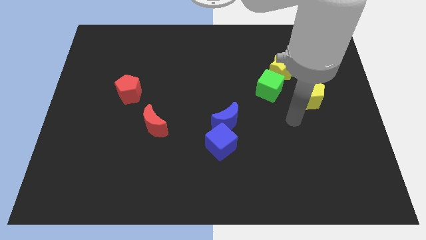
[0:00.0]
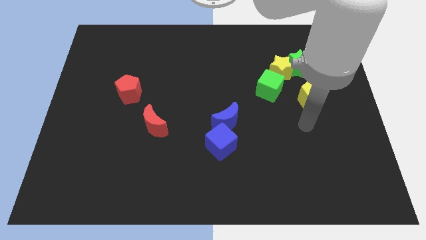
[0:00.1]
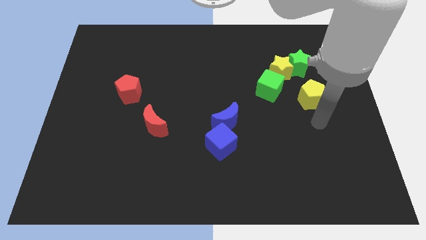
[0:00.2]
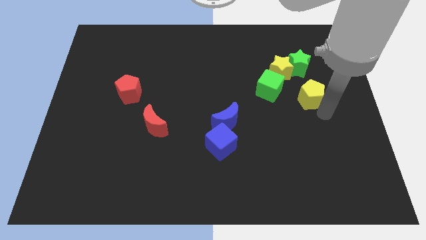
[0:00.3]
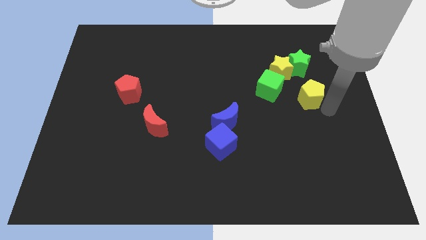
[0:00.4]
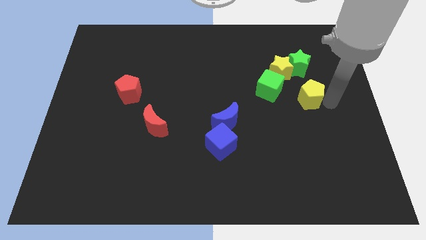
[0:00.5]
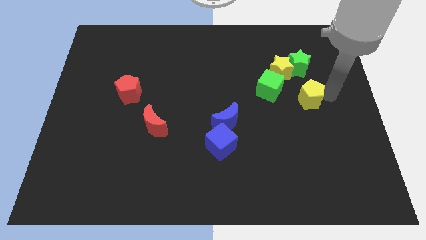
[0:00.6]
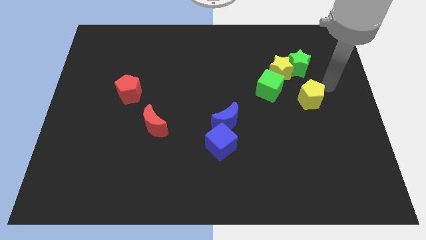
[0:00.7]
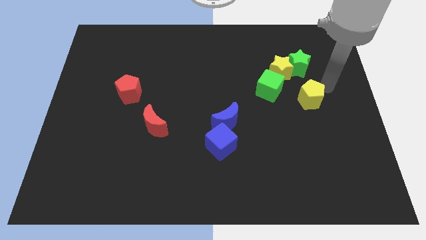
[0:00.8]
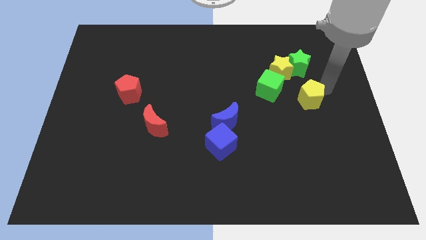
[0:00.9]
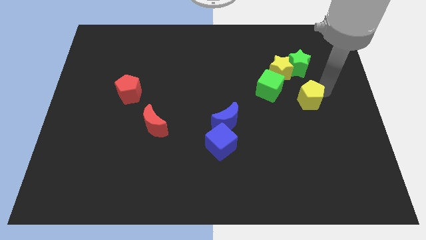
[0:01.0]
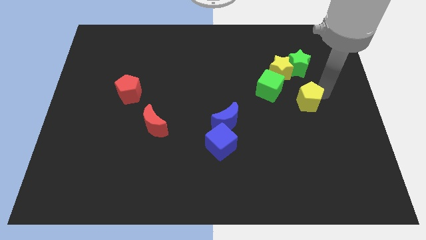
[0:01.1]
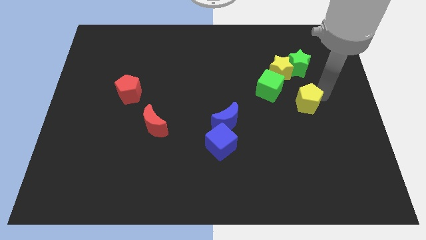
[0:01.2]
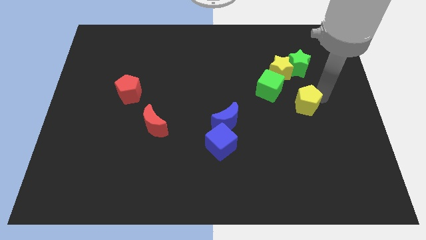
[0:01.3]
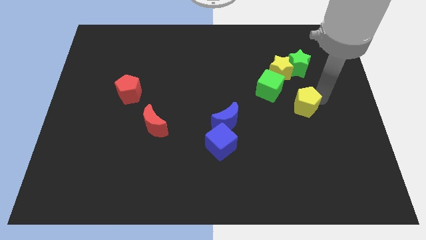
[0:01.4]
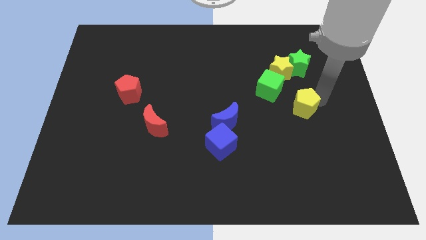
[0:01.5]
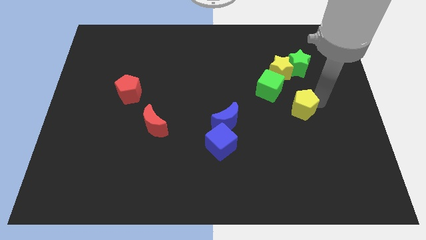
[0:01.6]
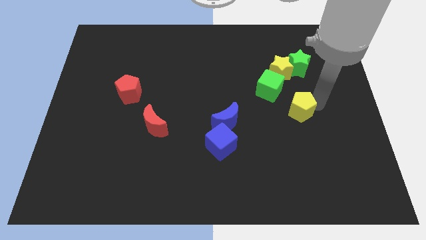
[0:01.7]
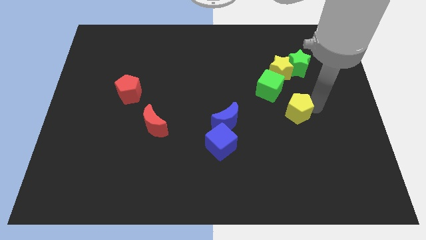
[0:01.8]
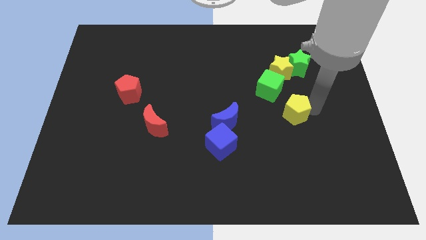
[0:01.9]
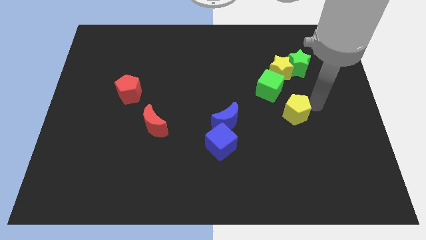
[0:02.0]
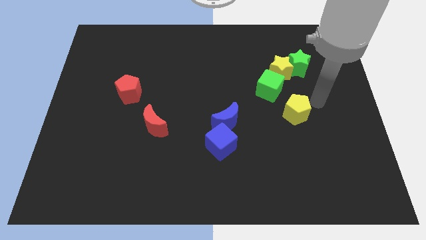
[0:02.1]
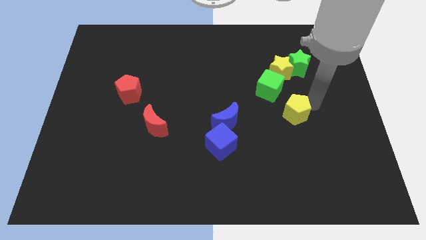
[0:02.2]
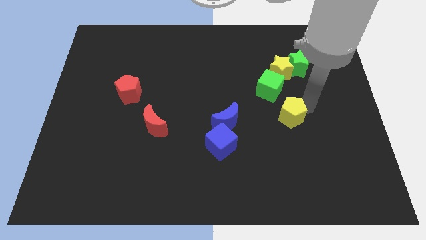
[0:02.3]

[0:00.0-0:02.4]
push the yellow pentagon a little down and then to the left

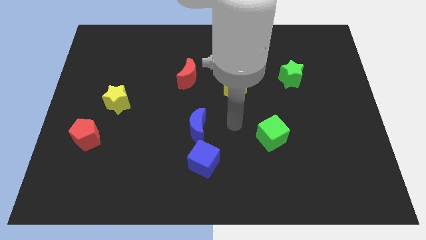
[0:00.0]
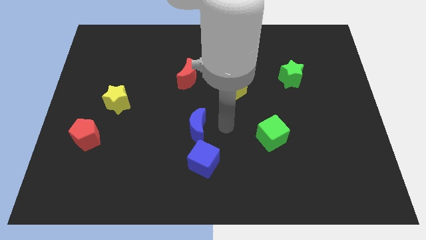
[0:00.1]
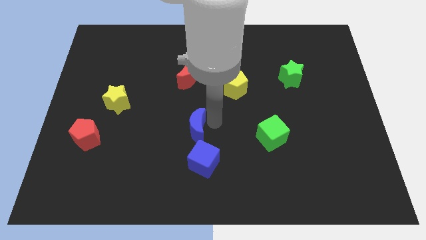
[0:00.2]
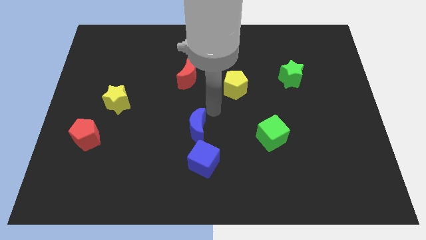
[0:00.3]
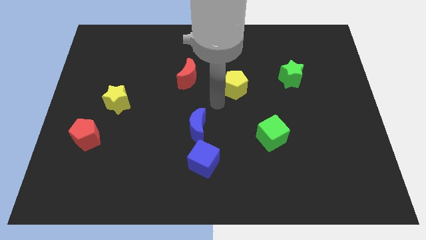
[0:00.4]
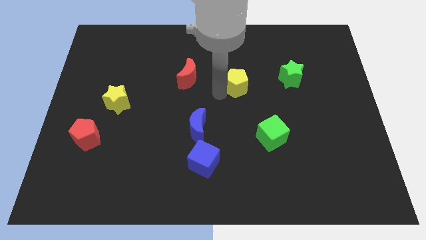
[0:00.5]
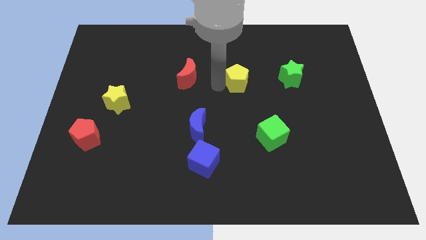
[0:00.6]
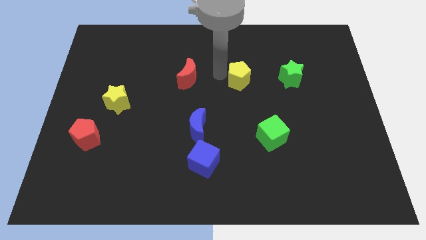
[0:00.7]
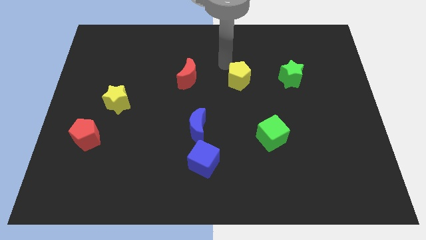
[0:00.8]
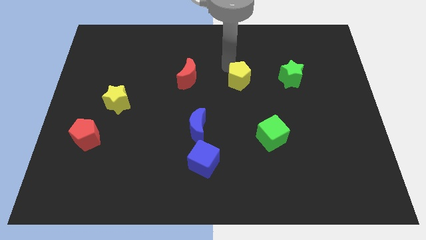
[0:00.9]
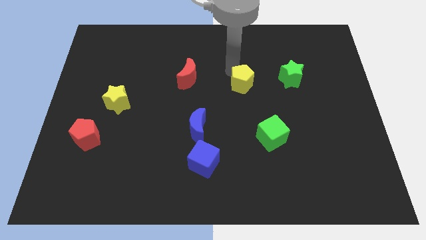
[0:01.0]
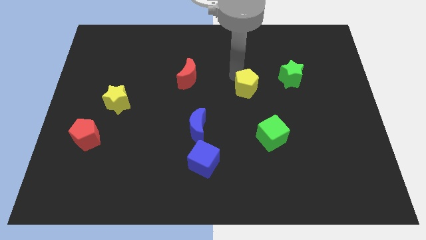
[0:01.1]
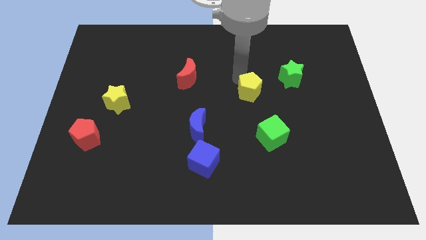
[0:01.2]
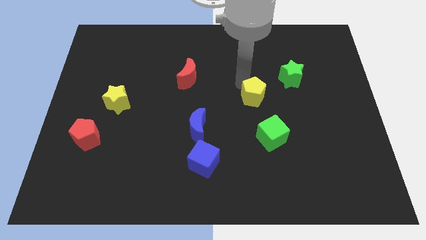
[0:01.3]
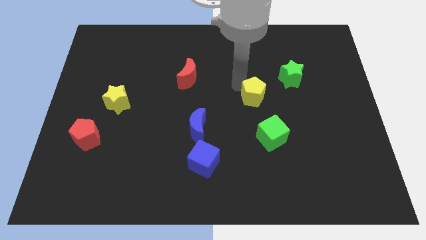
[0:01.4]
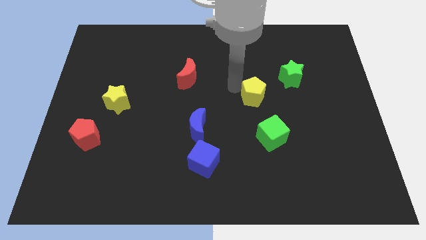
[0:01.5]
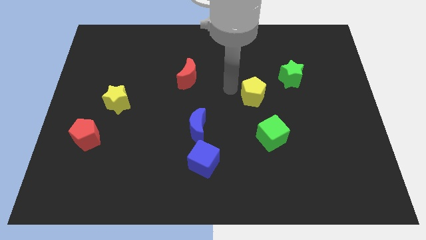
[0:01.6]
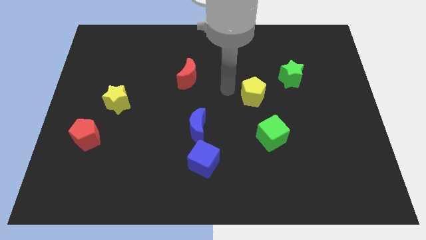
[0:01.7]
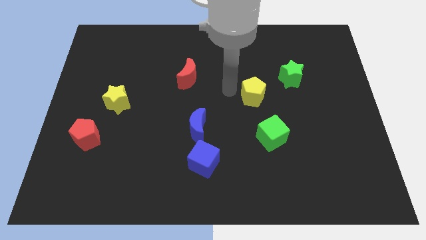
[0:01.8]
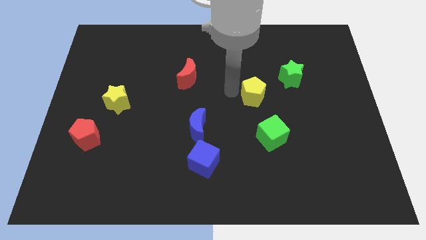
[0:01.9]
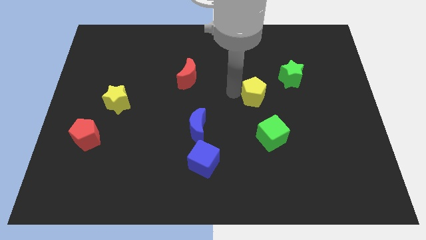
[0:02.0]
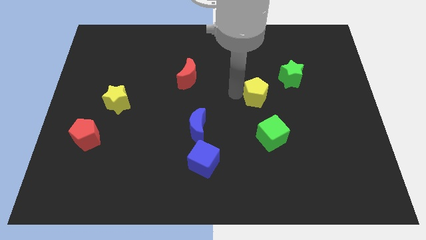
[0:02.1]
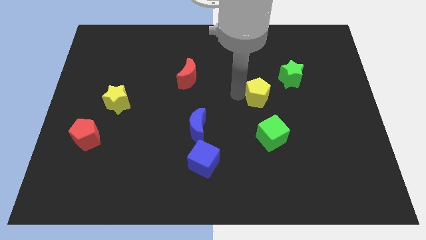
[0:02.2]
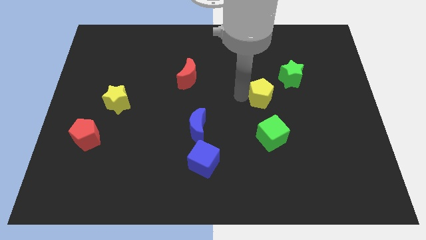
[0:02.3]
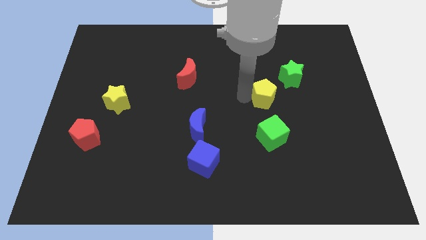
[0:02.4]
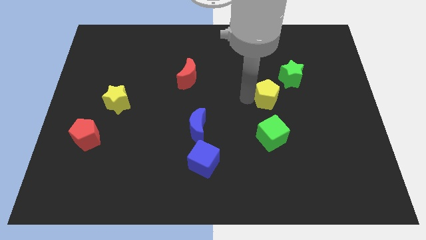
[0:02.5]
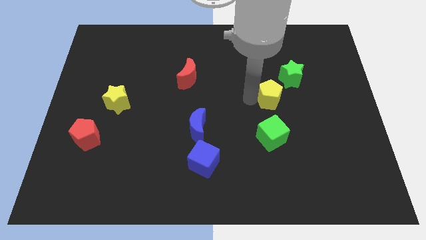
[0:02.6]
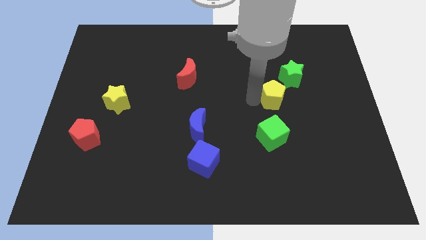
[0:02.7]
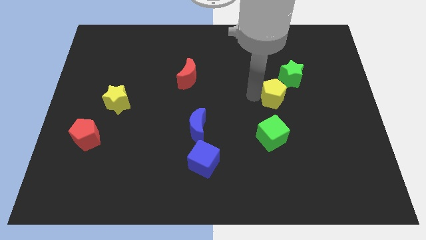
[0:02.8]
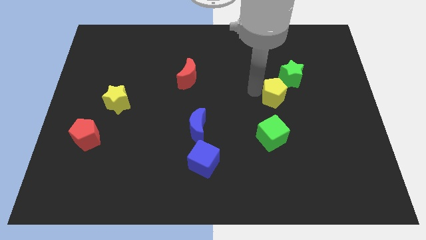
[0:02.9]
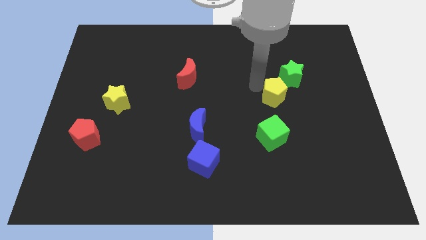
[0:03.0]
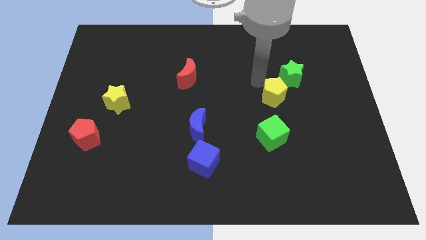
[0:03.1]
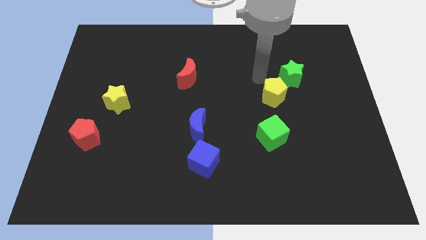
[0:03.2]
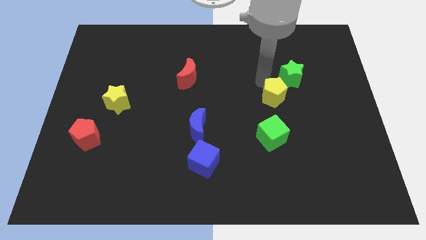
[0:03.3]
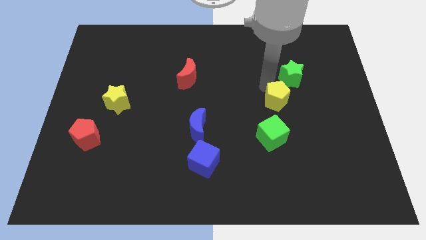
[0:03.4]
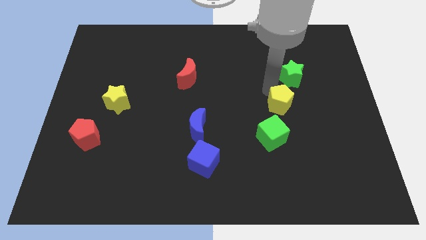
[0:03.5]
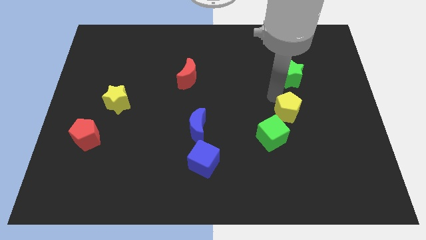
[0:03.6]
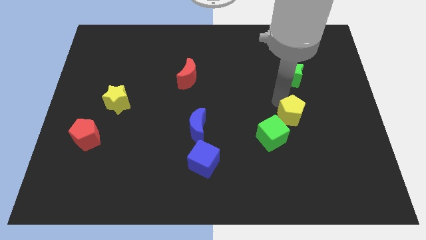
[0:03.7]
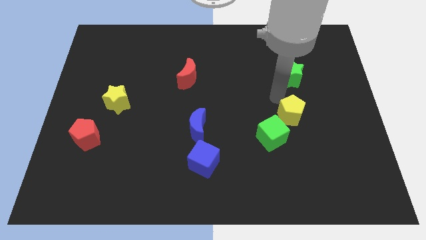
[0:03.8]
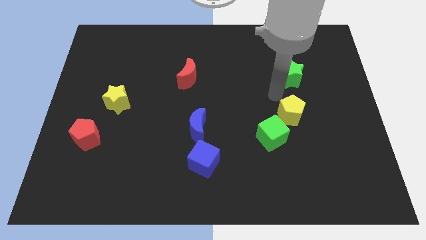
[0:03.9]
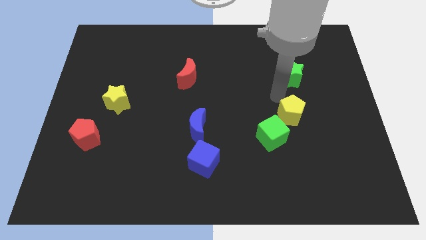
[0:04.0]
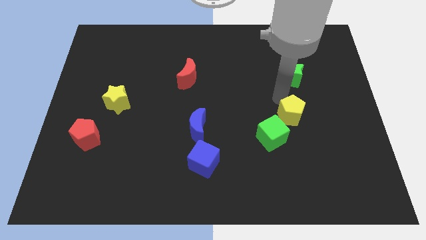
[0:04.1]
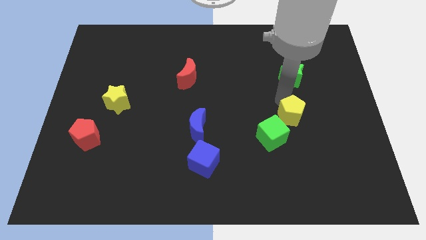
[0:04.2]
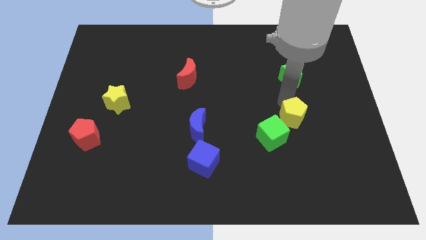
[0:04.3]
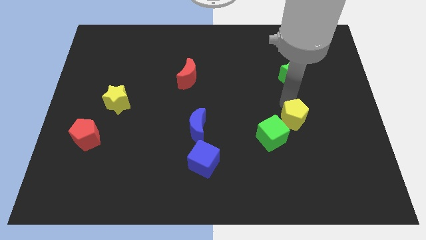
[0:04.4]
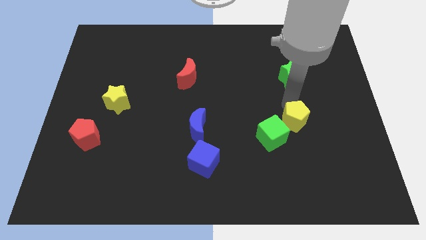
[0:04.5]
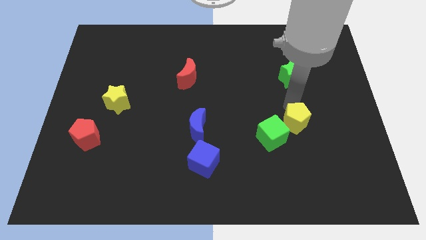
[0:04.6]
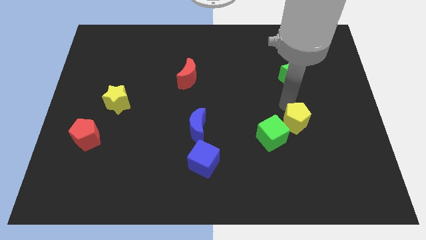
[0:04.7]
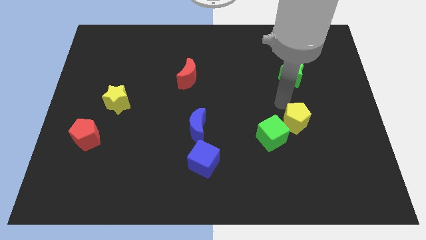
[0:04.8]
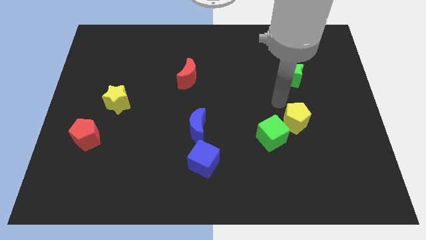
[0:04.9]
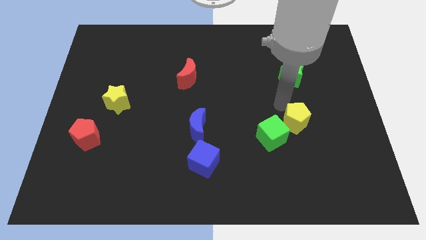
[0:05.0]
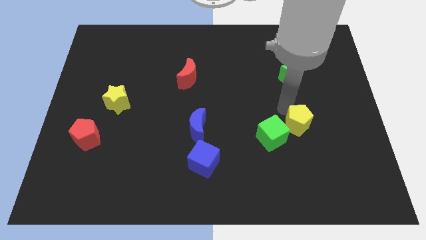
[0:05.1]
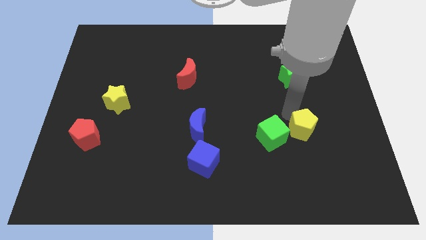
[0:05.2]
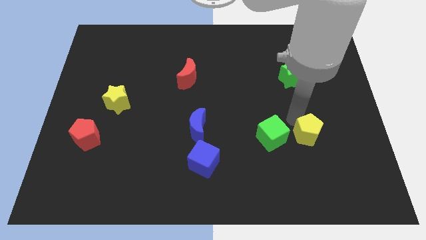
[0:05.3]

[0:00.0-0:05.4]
push the yellow pentagon diagonally down and right

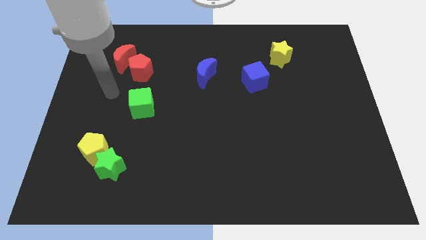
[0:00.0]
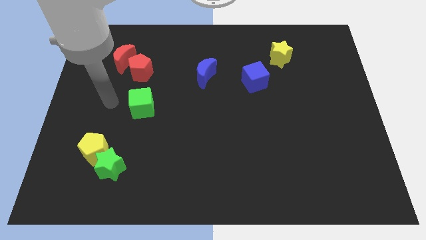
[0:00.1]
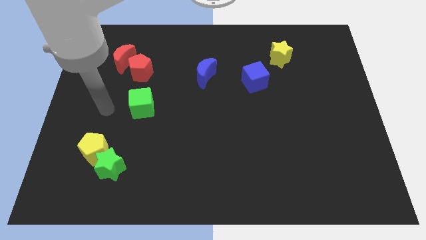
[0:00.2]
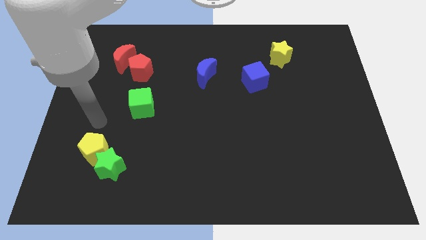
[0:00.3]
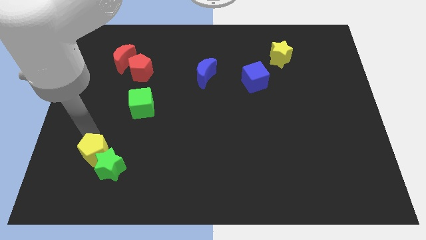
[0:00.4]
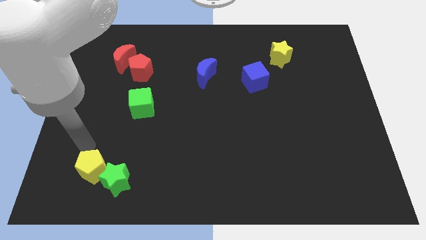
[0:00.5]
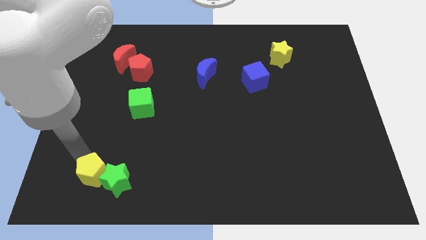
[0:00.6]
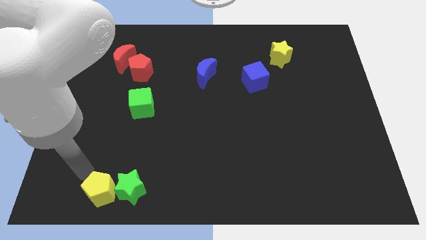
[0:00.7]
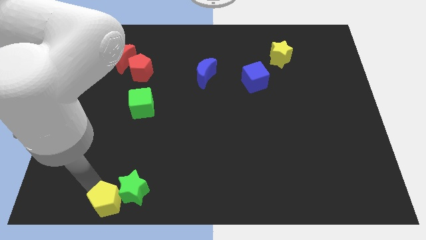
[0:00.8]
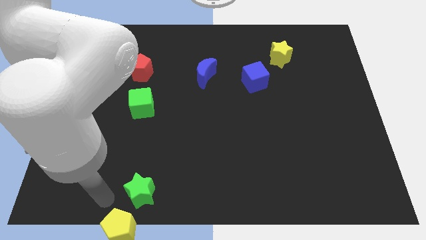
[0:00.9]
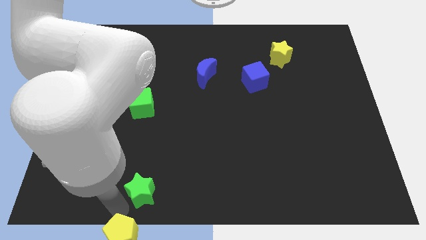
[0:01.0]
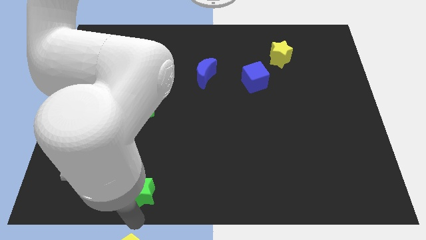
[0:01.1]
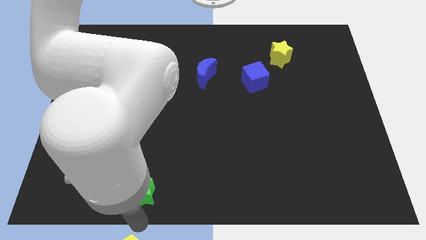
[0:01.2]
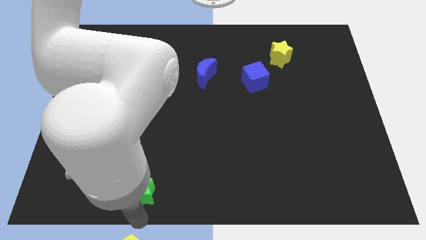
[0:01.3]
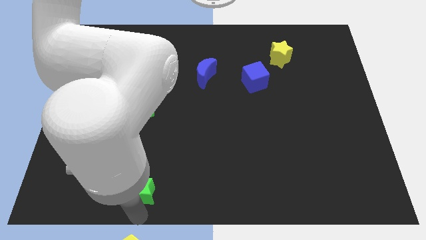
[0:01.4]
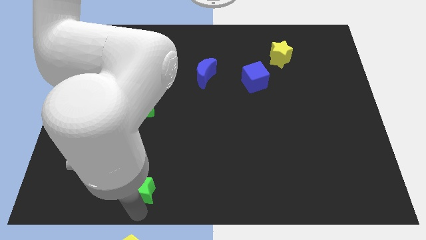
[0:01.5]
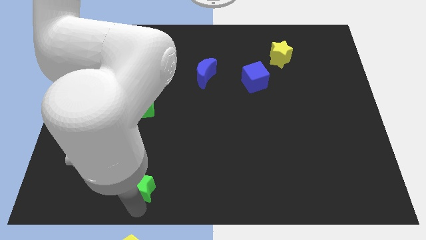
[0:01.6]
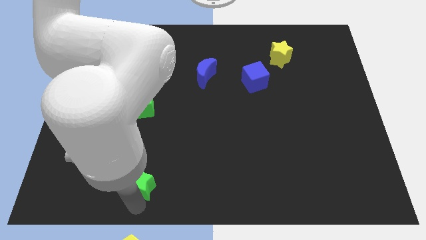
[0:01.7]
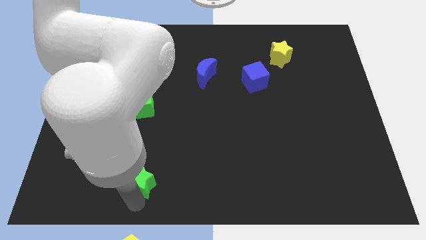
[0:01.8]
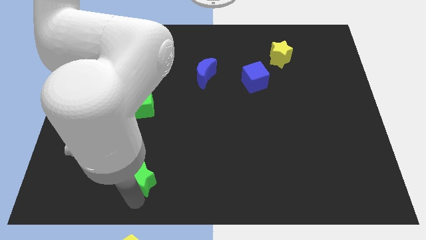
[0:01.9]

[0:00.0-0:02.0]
move the green star to the right slightly
